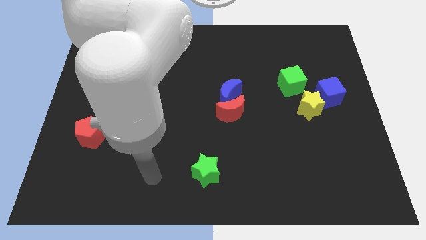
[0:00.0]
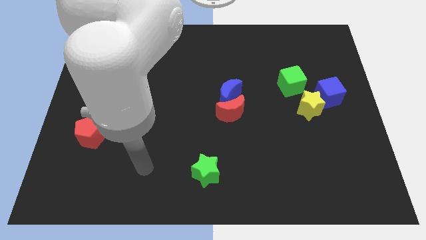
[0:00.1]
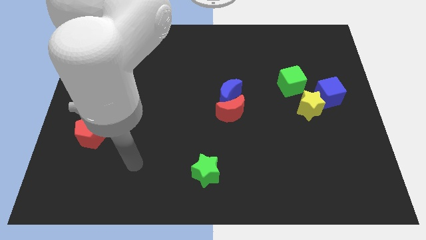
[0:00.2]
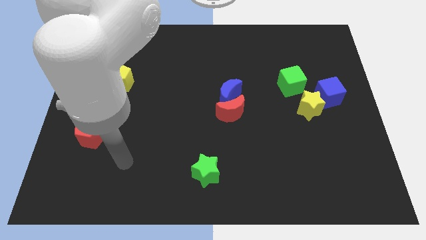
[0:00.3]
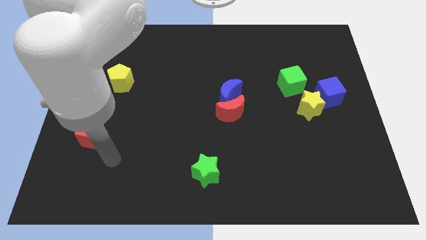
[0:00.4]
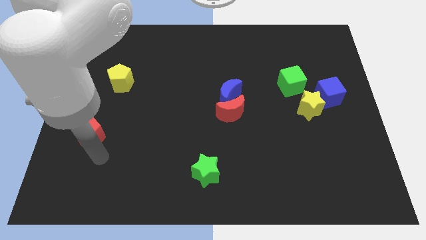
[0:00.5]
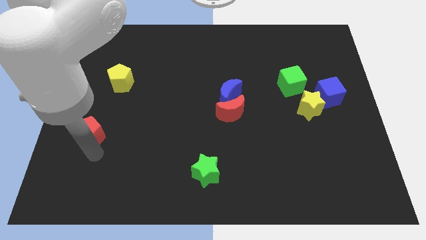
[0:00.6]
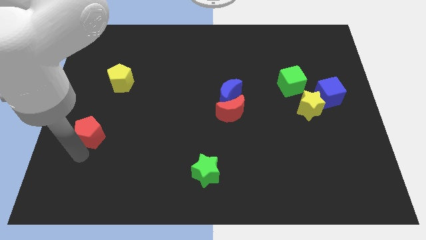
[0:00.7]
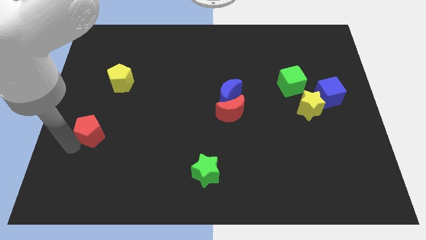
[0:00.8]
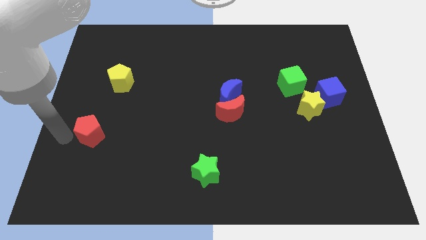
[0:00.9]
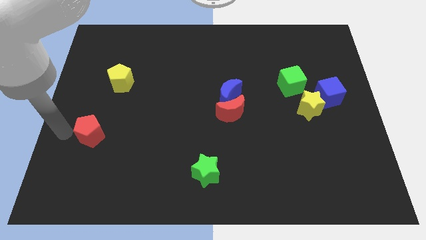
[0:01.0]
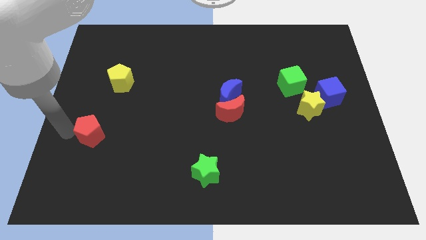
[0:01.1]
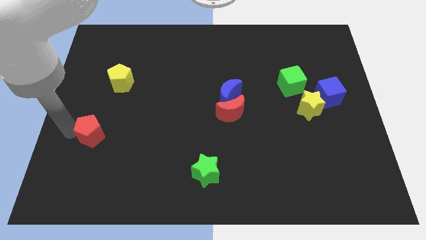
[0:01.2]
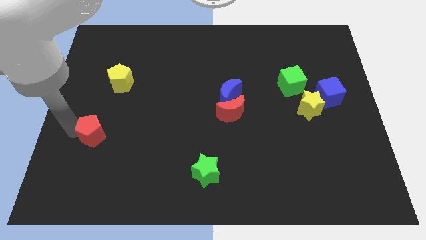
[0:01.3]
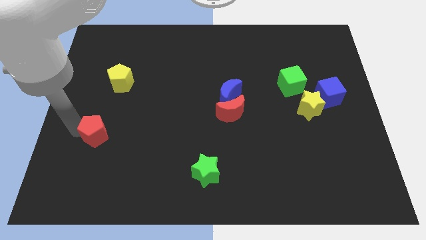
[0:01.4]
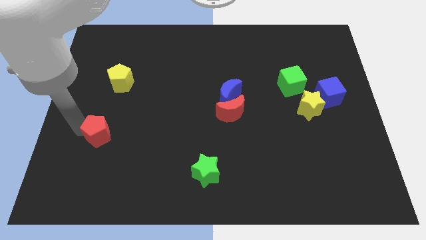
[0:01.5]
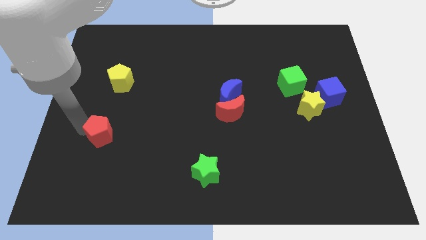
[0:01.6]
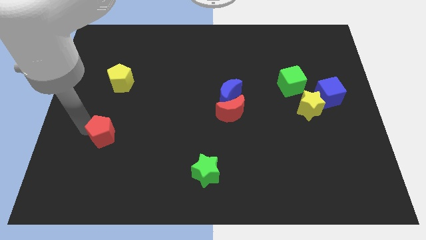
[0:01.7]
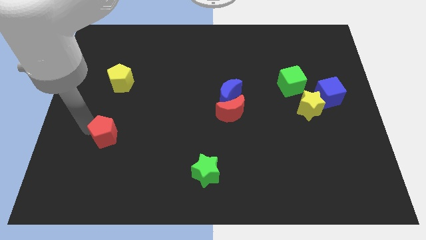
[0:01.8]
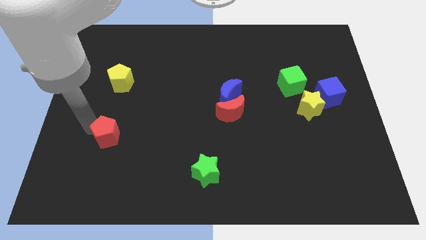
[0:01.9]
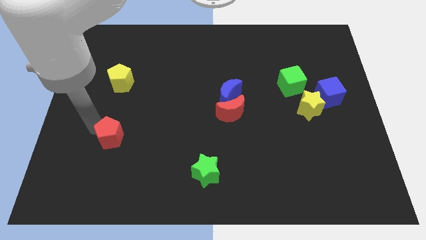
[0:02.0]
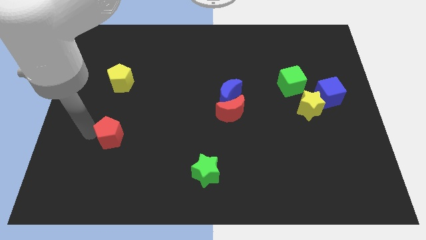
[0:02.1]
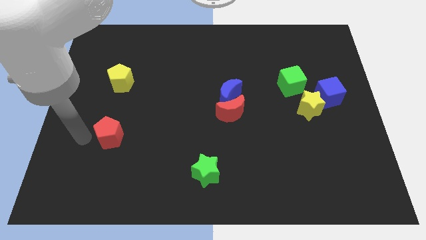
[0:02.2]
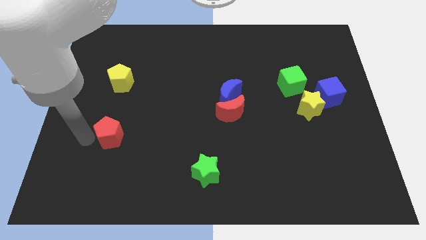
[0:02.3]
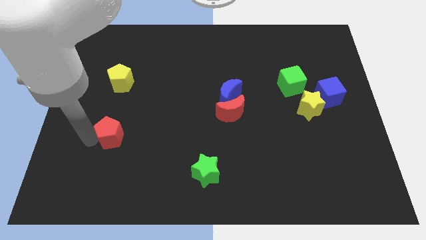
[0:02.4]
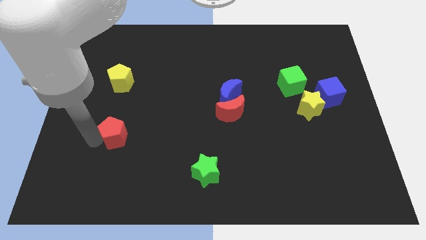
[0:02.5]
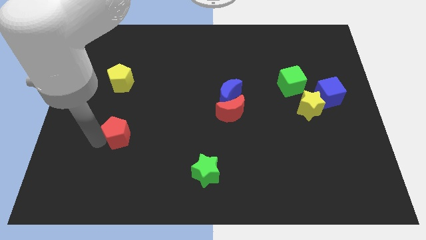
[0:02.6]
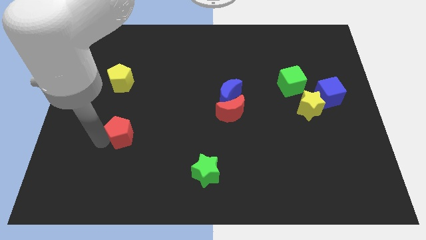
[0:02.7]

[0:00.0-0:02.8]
slightly move the red pentagon to the right

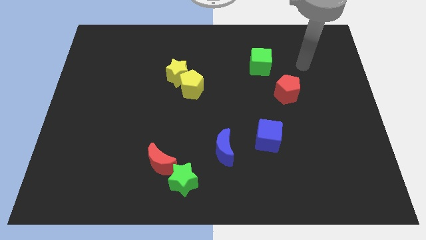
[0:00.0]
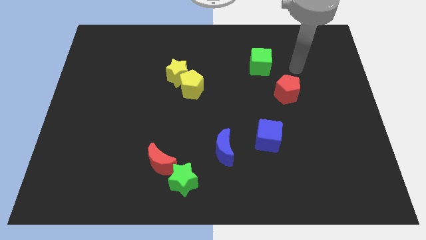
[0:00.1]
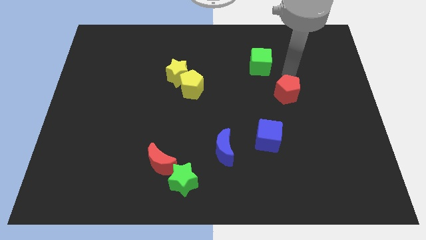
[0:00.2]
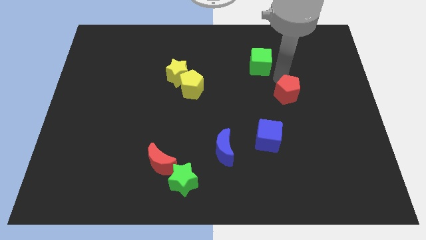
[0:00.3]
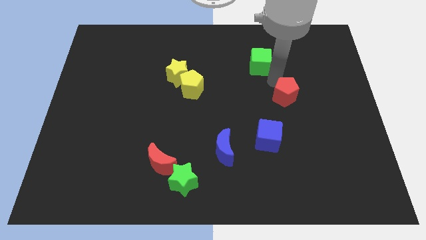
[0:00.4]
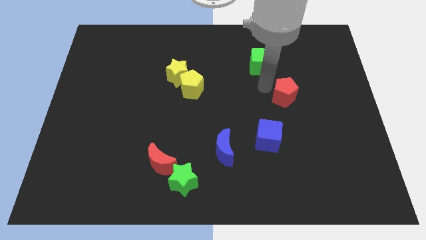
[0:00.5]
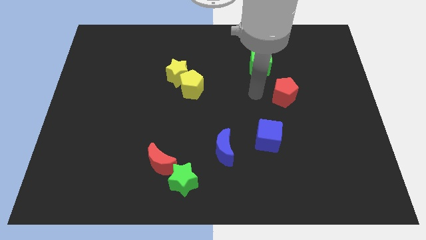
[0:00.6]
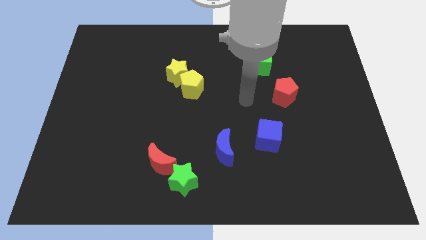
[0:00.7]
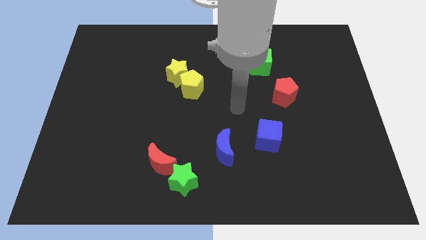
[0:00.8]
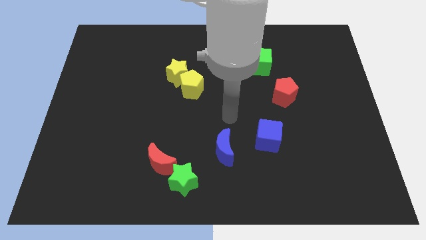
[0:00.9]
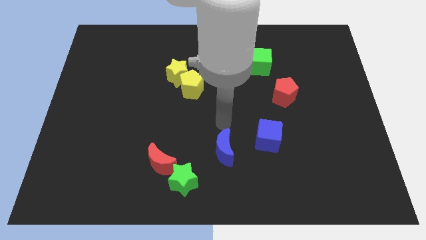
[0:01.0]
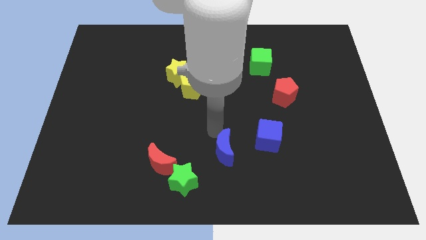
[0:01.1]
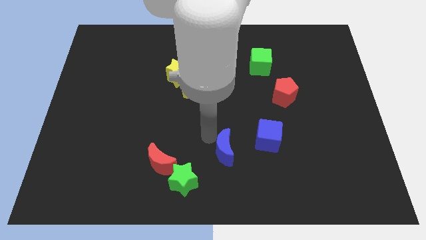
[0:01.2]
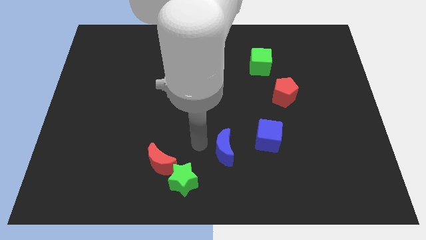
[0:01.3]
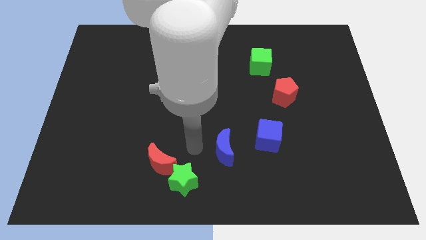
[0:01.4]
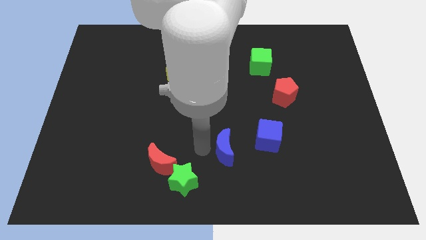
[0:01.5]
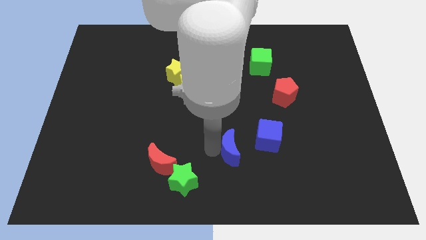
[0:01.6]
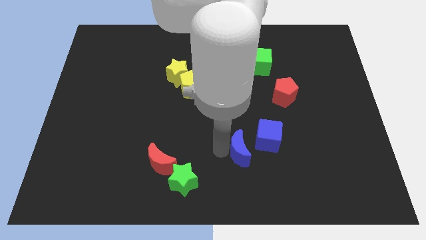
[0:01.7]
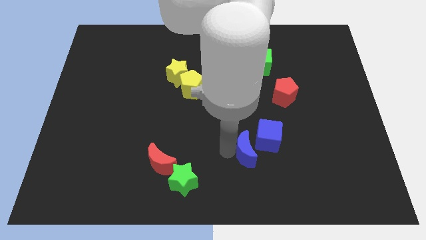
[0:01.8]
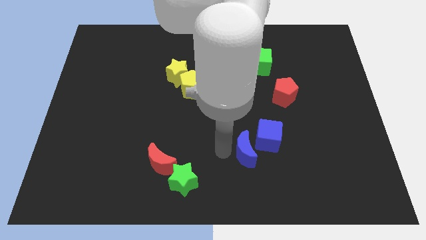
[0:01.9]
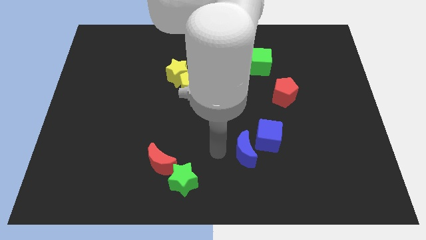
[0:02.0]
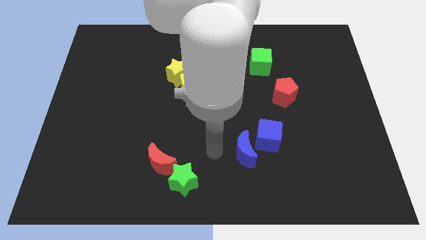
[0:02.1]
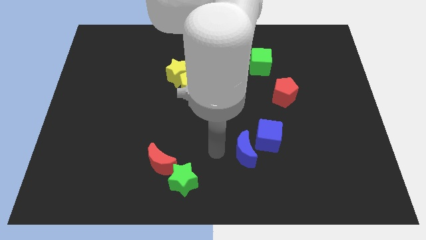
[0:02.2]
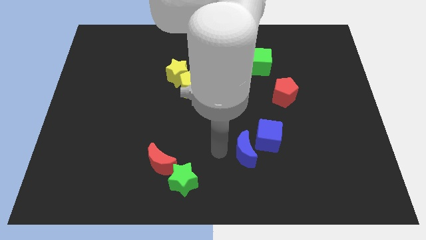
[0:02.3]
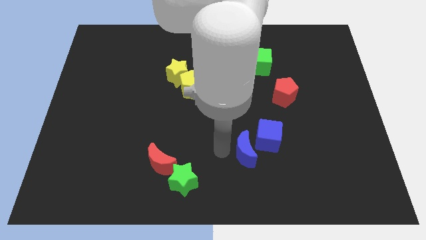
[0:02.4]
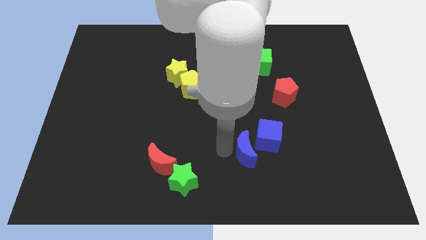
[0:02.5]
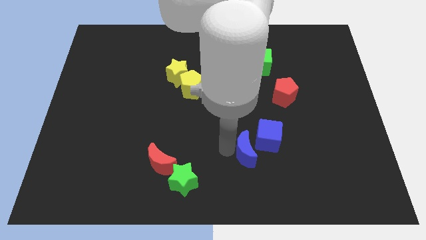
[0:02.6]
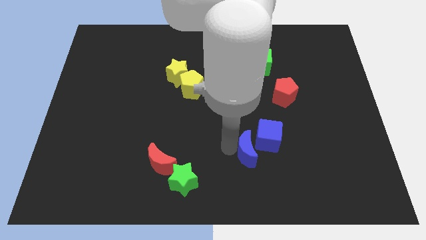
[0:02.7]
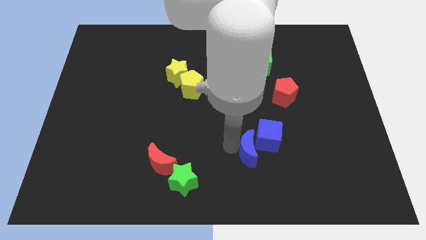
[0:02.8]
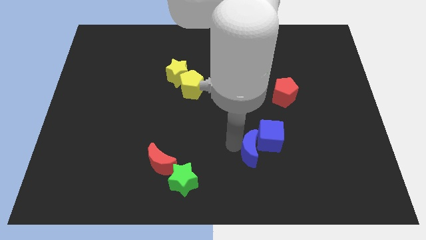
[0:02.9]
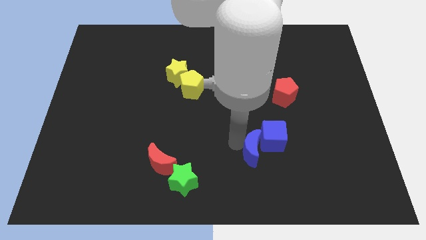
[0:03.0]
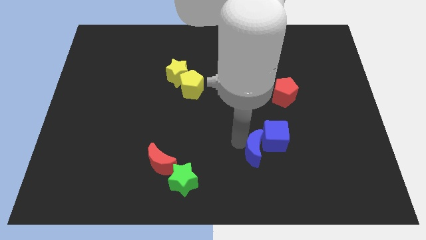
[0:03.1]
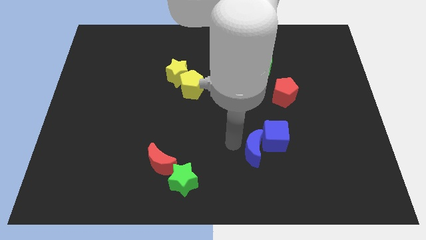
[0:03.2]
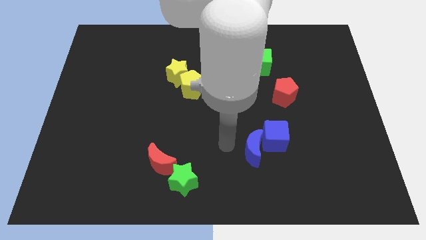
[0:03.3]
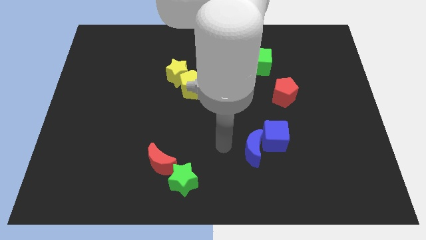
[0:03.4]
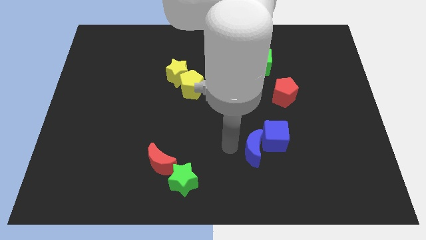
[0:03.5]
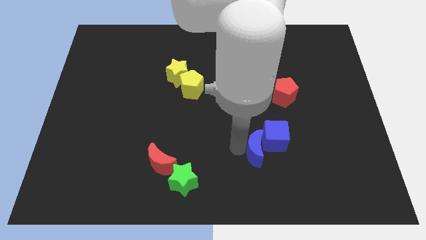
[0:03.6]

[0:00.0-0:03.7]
slightly move the blue moon right

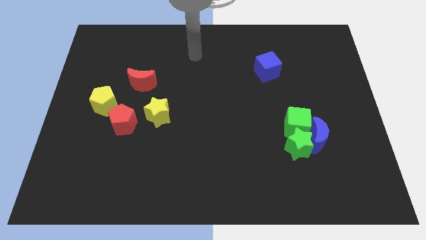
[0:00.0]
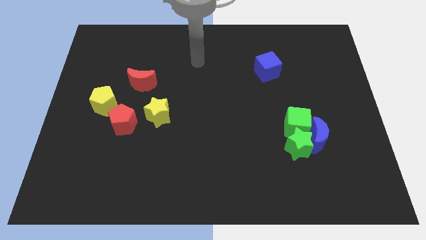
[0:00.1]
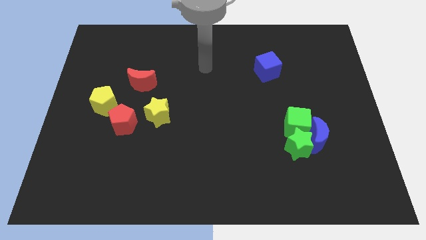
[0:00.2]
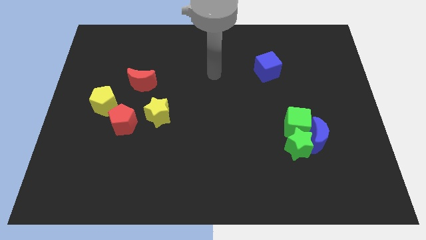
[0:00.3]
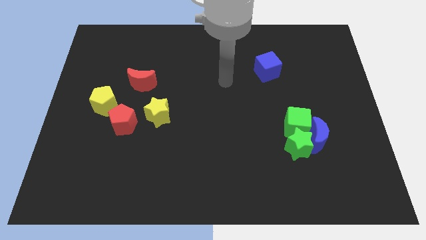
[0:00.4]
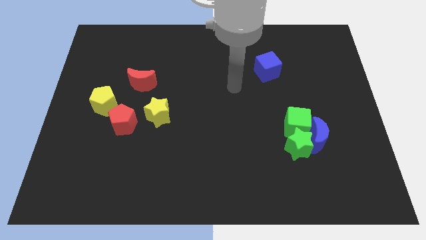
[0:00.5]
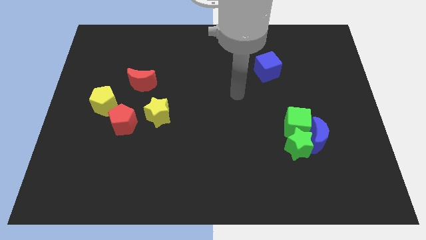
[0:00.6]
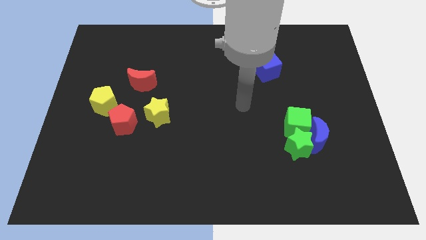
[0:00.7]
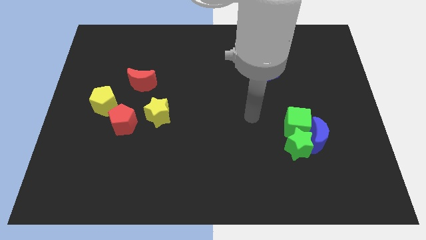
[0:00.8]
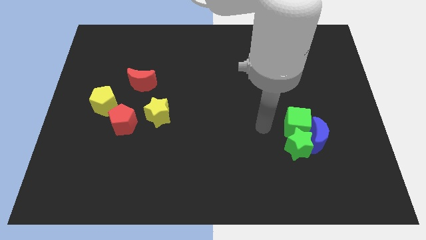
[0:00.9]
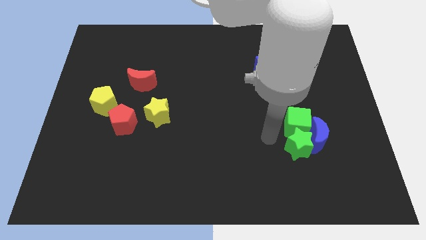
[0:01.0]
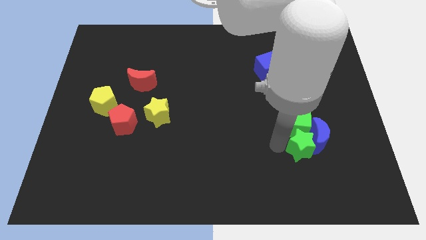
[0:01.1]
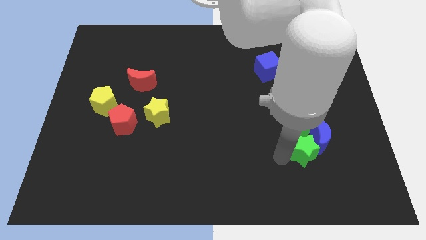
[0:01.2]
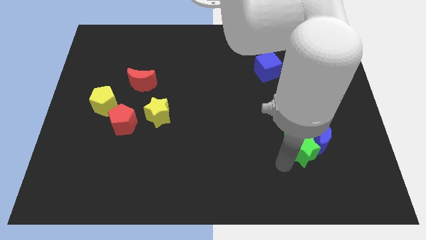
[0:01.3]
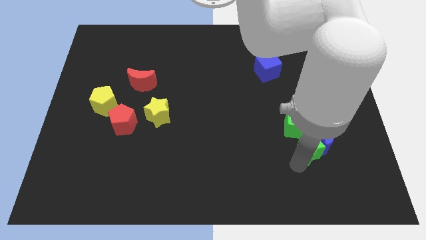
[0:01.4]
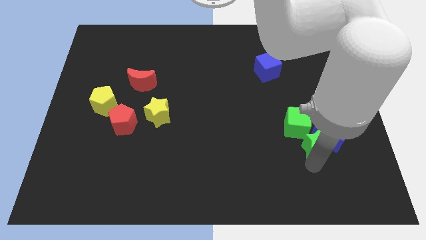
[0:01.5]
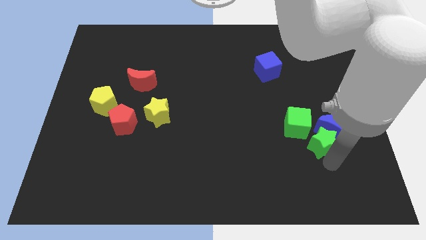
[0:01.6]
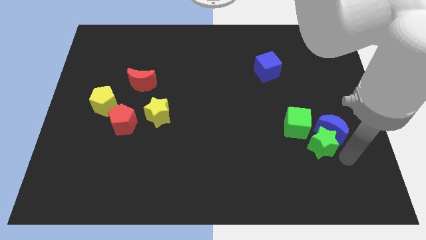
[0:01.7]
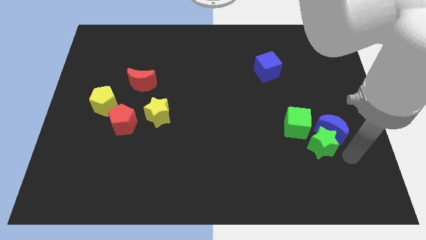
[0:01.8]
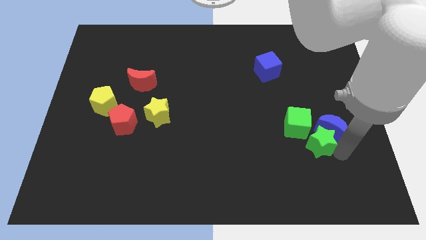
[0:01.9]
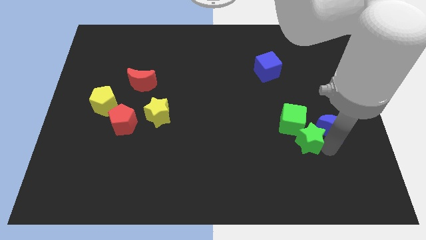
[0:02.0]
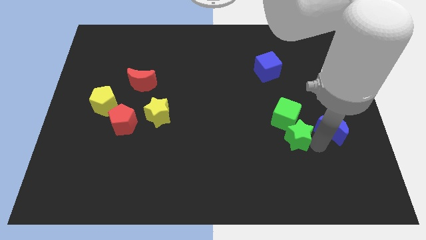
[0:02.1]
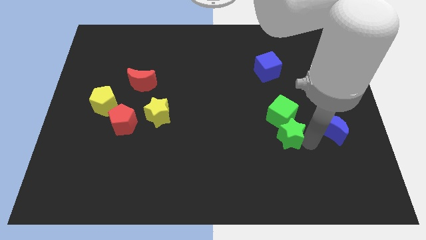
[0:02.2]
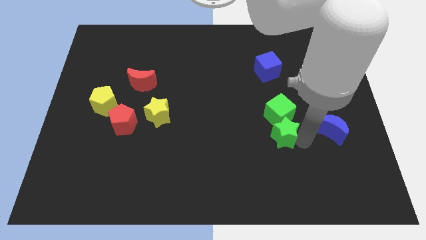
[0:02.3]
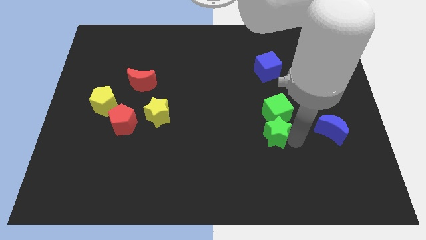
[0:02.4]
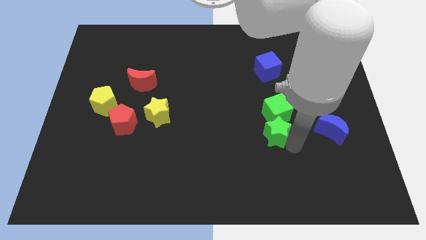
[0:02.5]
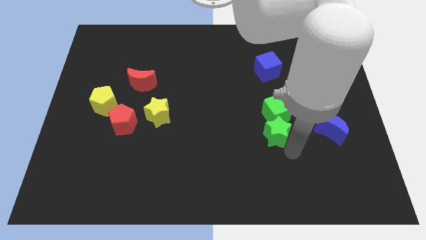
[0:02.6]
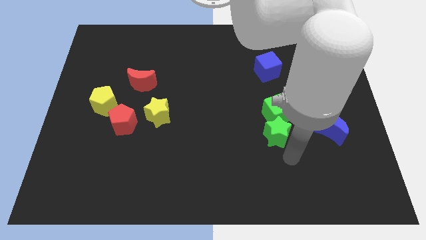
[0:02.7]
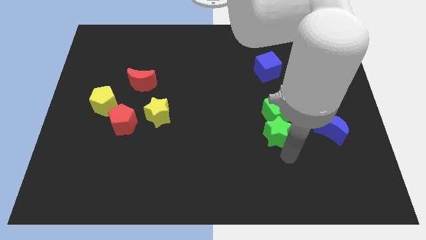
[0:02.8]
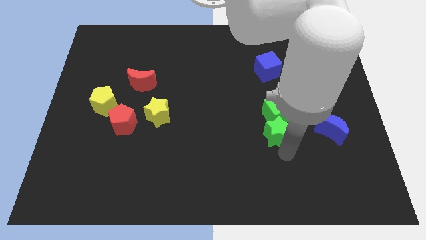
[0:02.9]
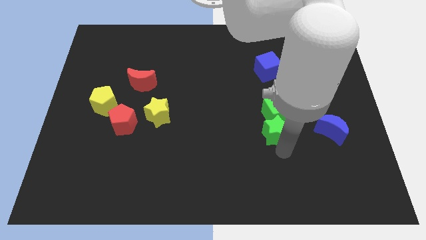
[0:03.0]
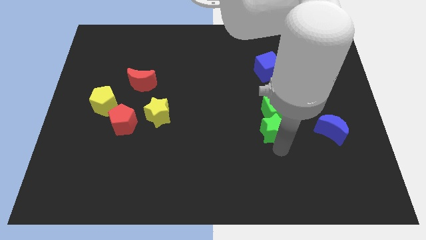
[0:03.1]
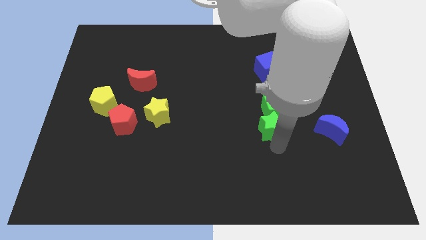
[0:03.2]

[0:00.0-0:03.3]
push the green star somewhat upwards and then left
